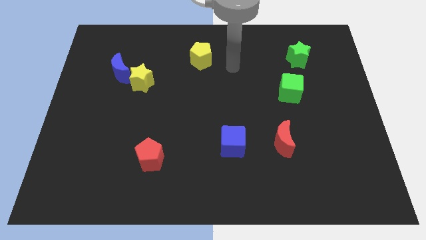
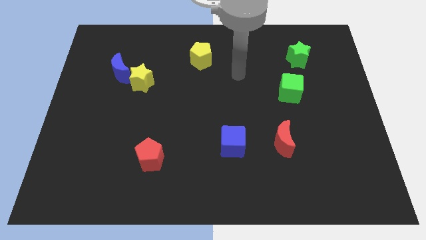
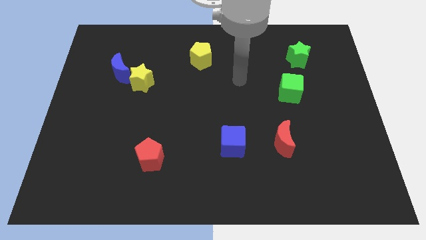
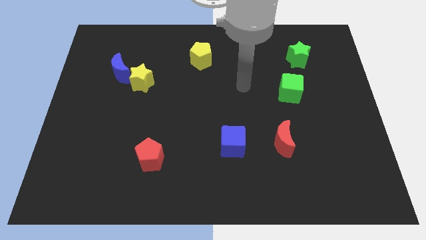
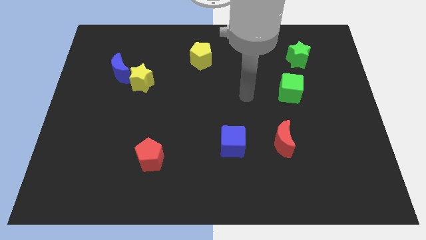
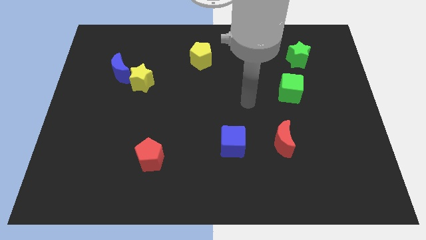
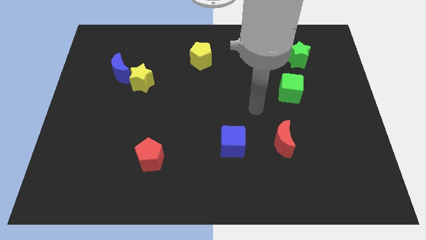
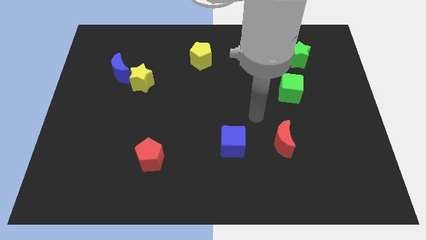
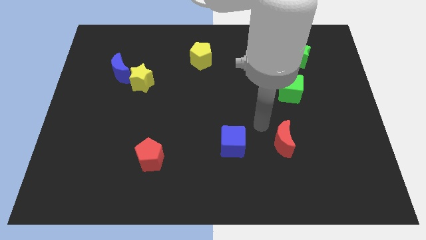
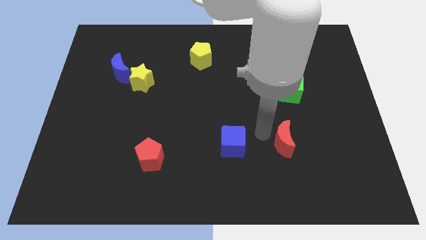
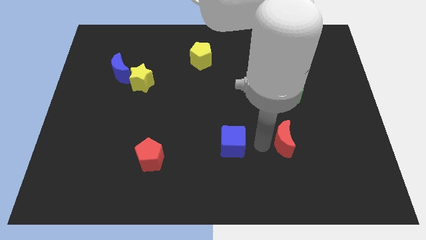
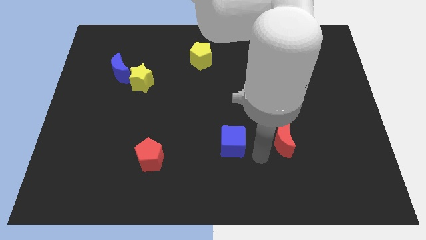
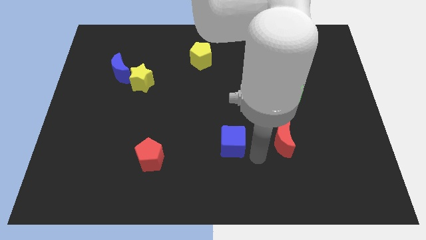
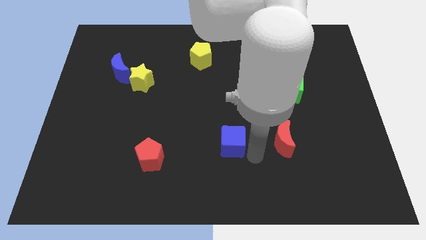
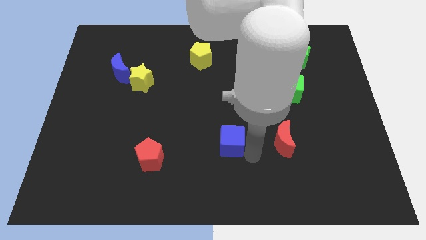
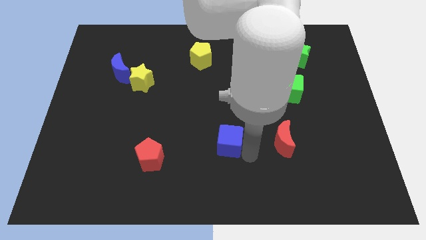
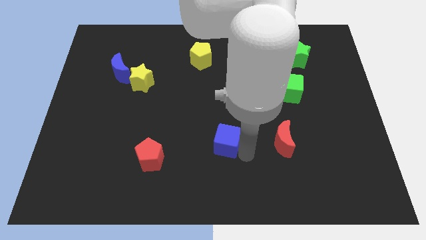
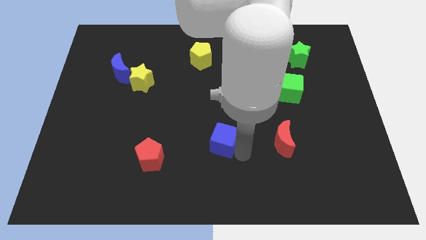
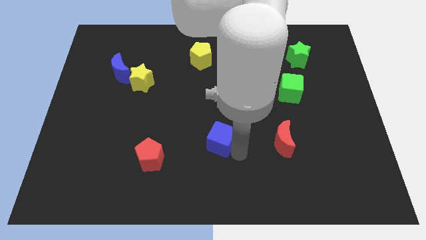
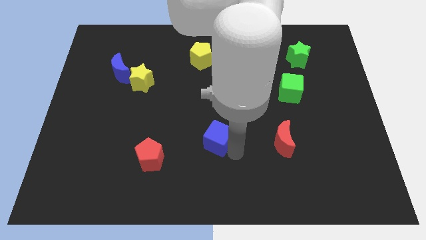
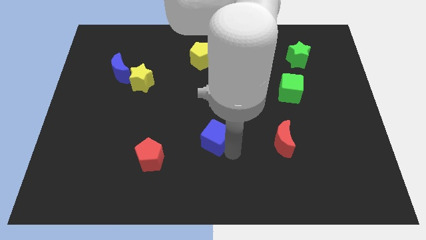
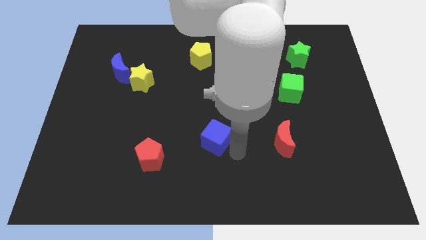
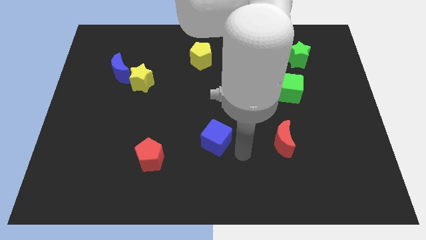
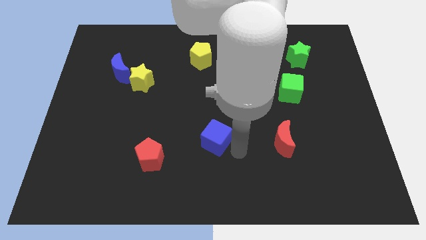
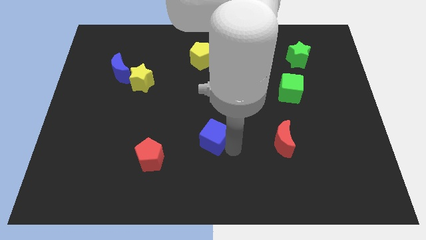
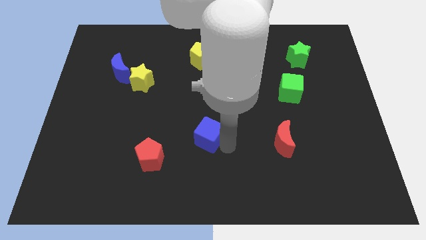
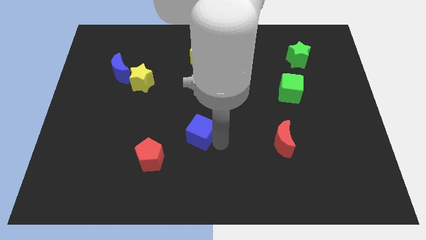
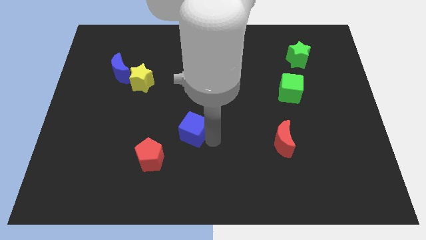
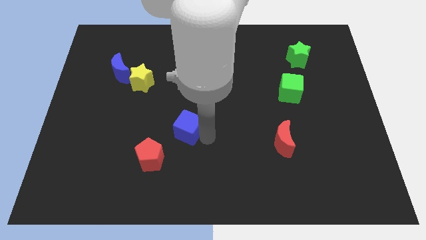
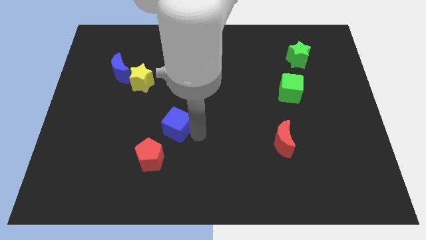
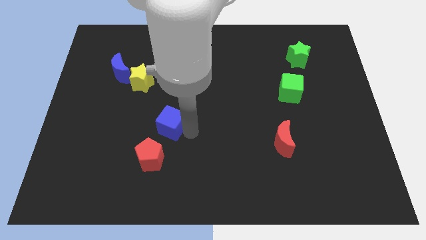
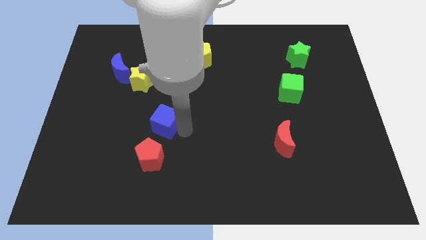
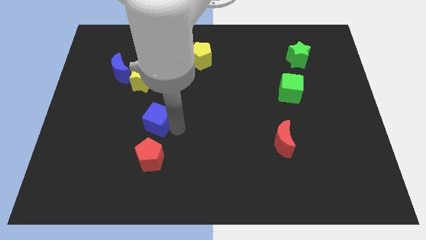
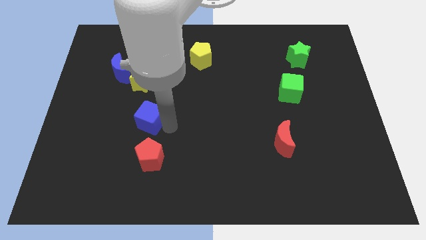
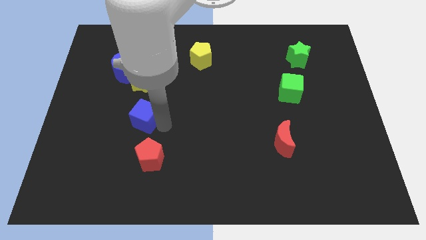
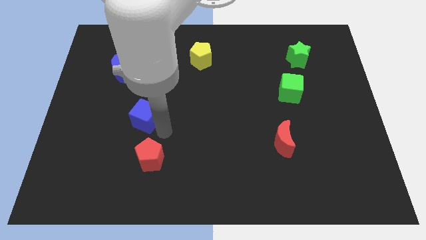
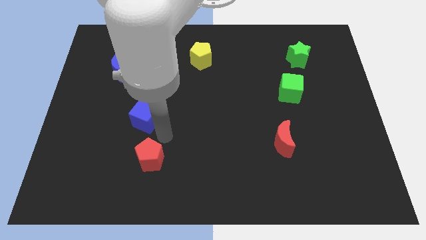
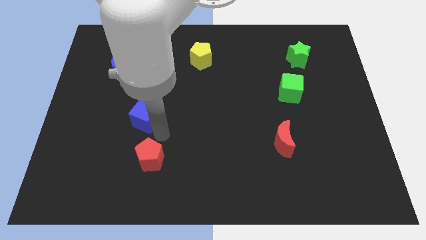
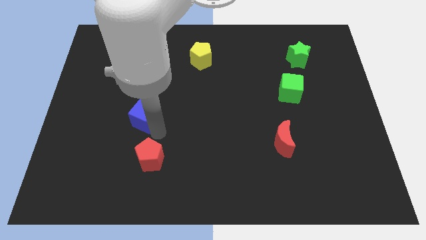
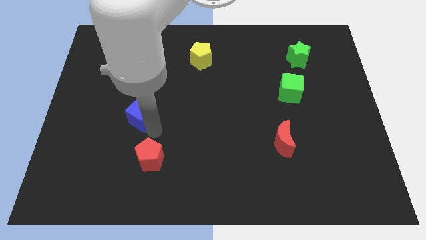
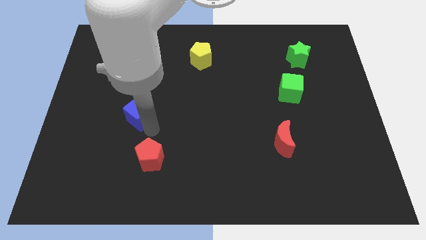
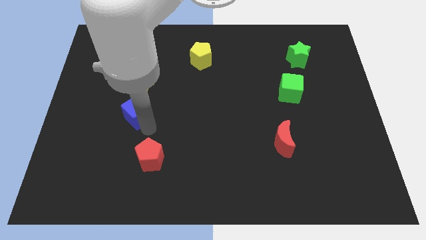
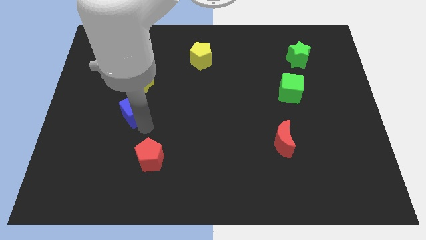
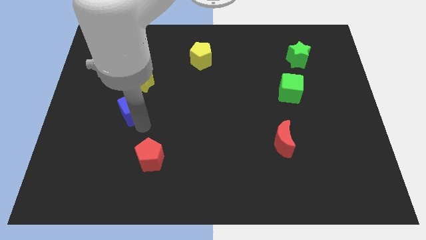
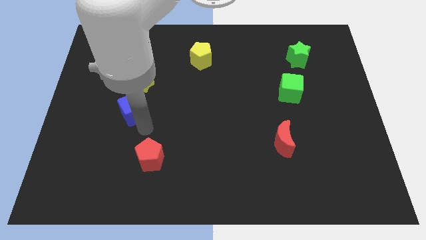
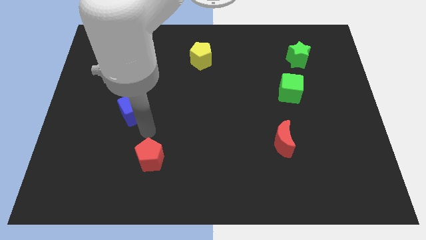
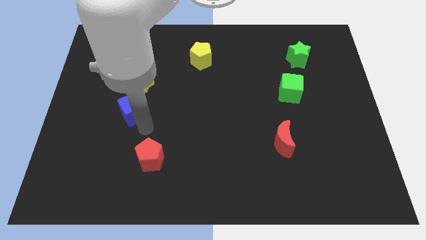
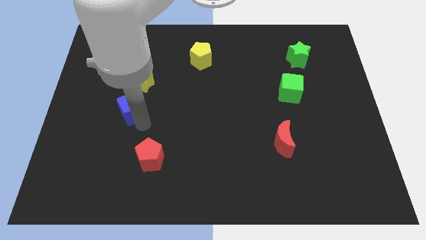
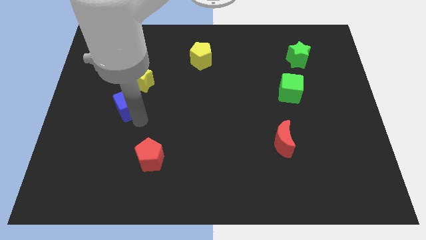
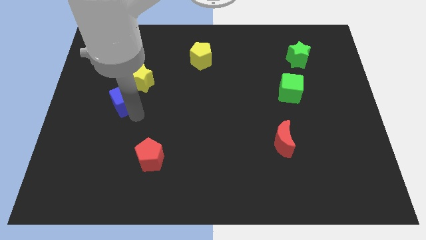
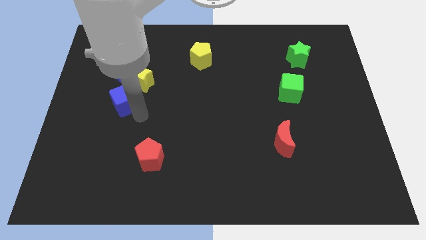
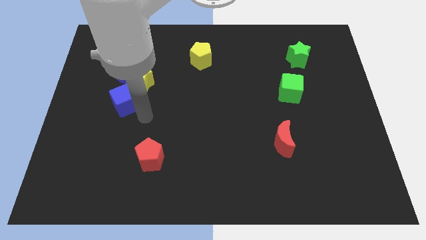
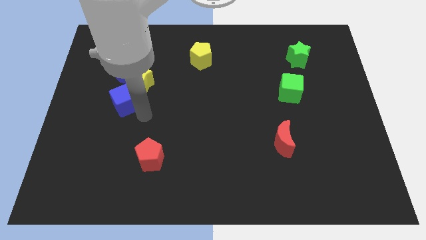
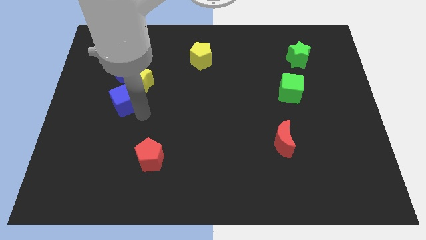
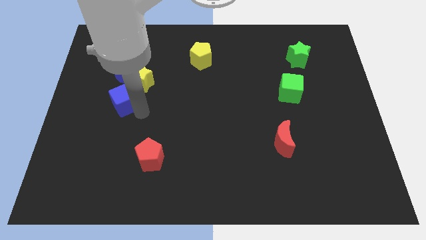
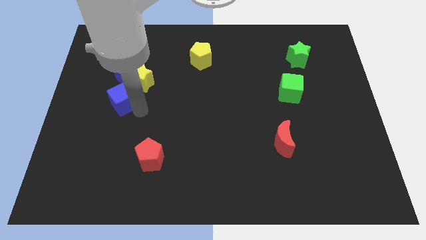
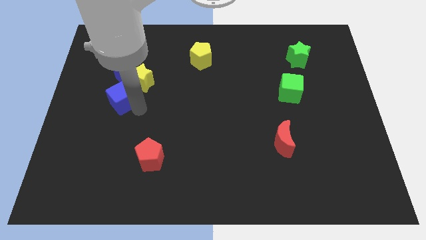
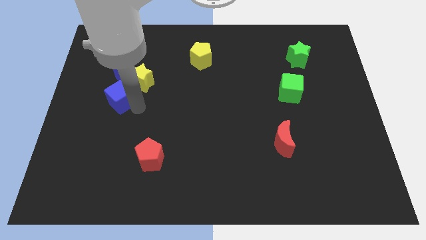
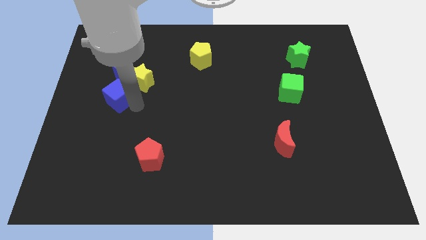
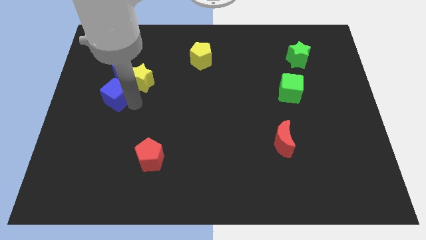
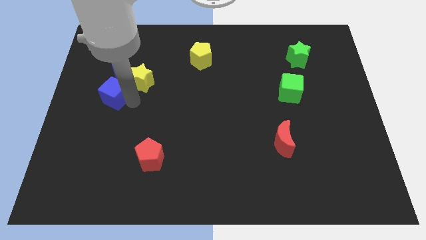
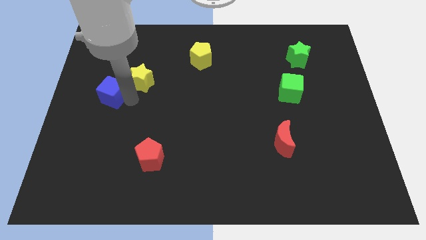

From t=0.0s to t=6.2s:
slide the blue cube to the bottom left of the blue moon

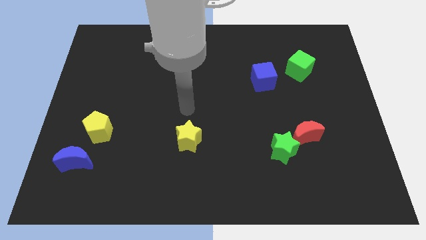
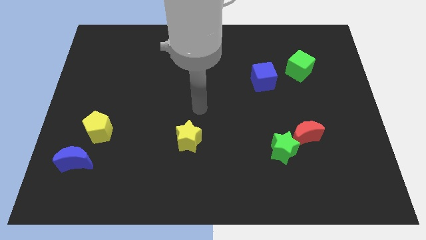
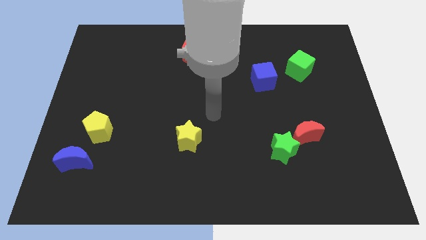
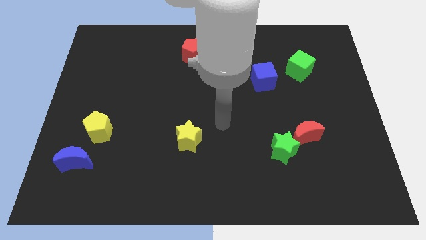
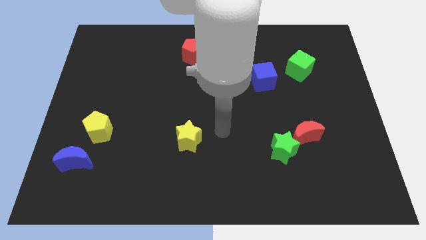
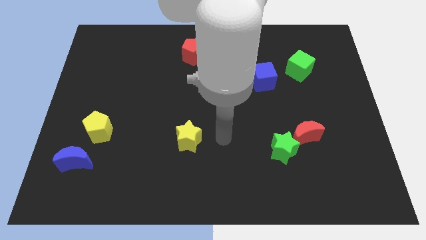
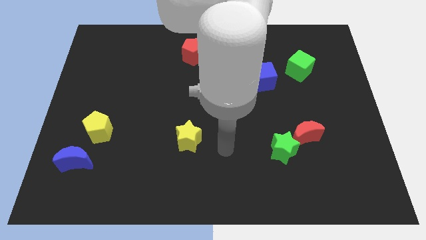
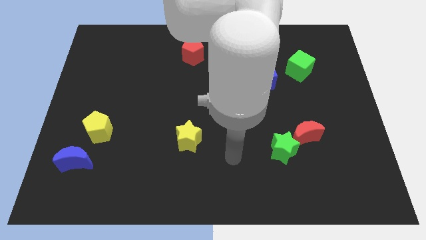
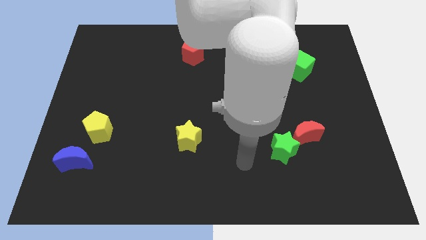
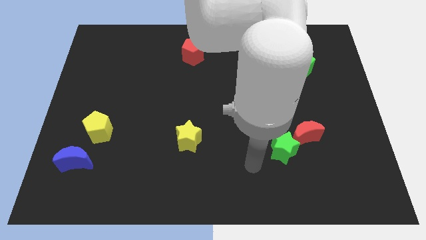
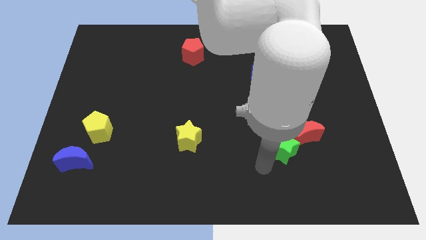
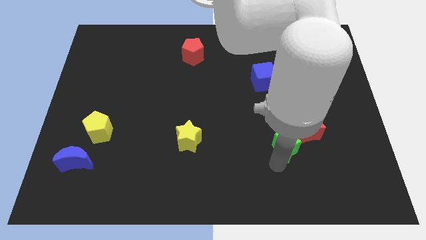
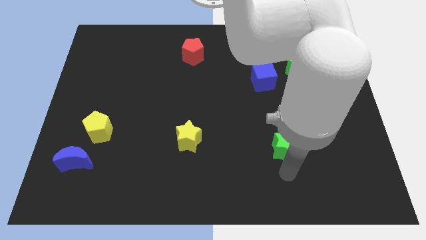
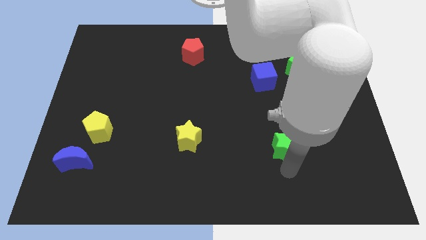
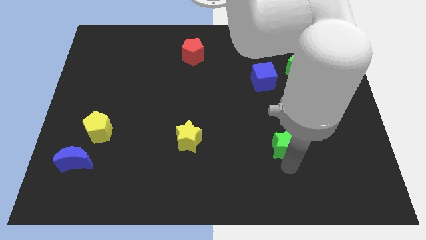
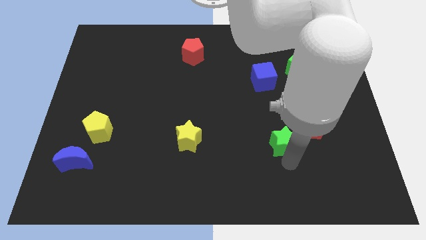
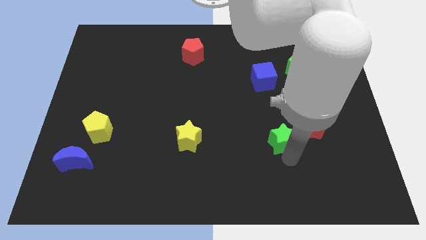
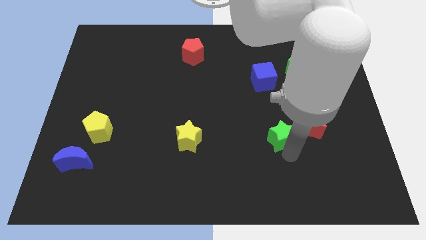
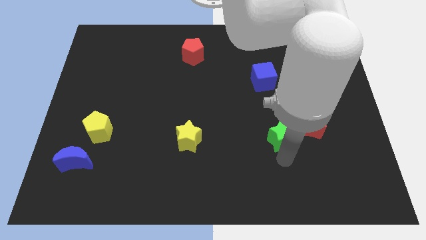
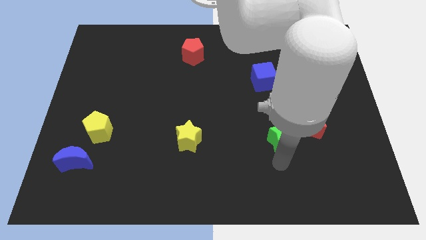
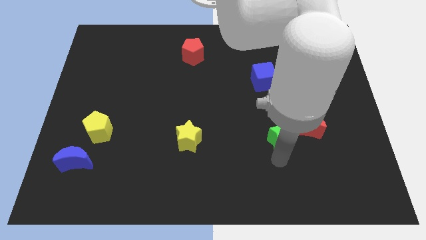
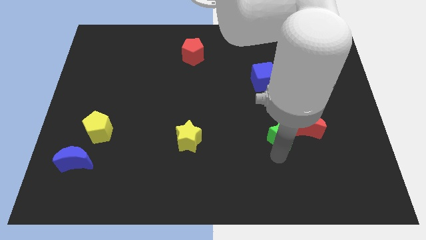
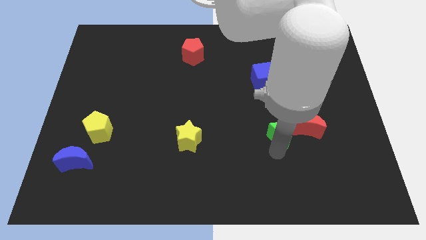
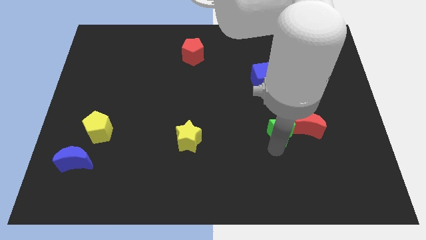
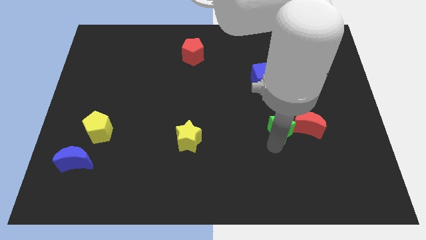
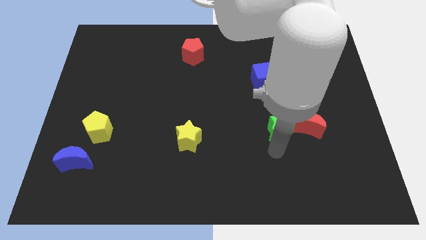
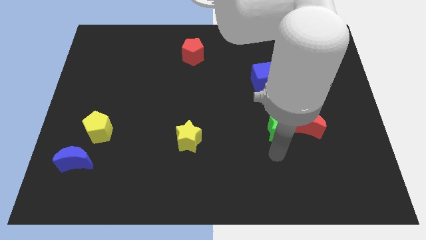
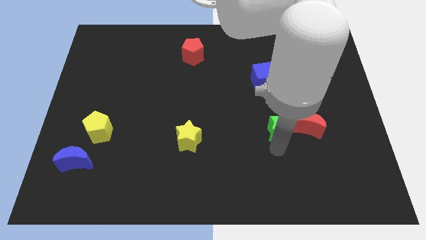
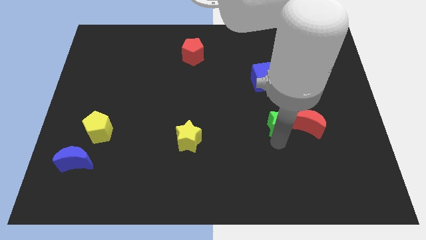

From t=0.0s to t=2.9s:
put the green star diagonally up and to the left of the red moon
